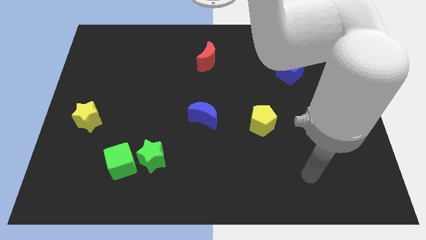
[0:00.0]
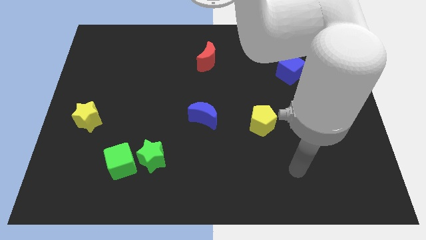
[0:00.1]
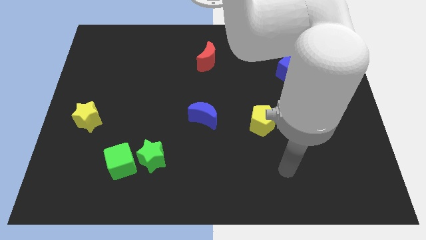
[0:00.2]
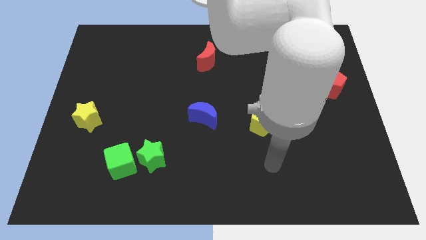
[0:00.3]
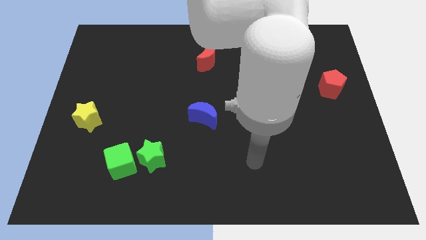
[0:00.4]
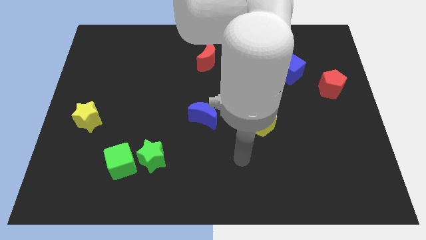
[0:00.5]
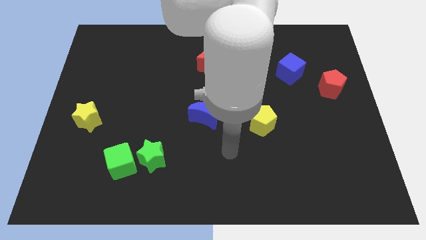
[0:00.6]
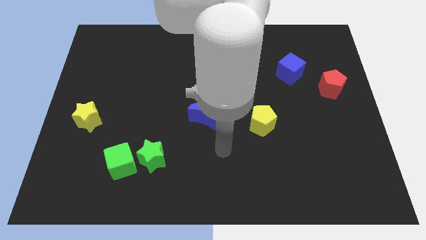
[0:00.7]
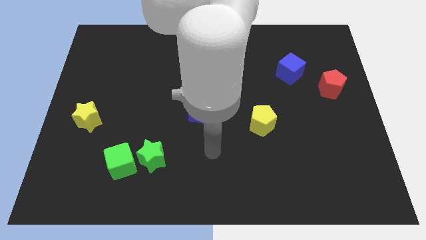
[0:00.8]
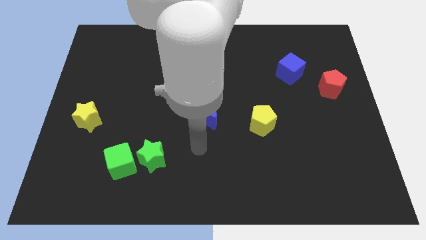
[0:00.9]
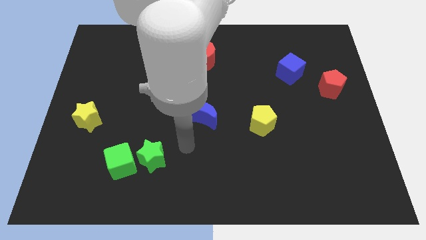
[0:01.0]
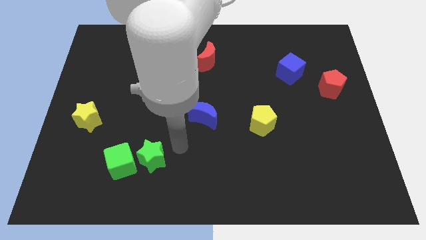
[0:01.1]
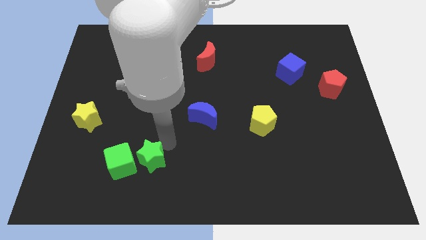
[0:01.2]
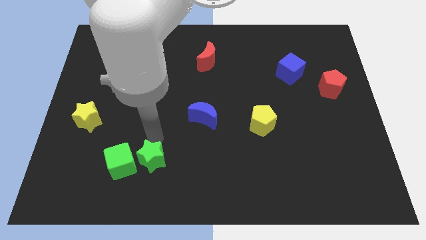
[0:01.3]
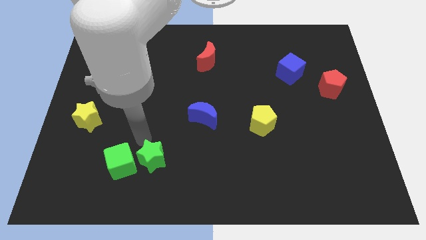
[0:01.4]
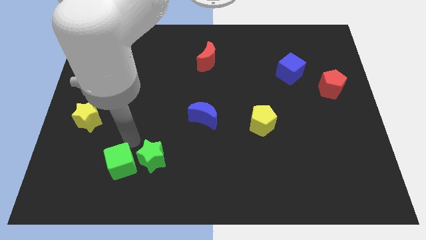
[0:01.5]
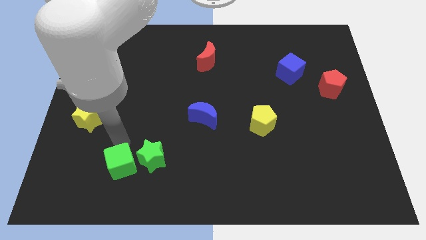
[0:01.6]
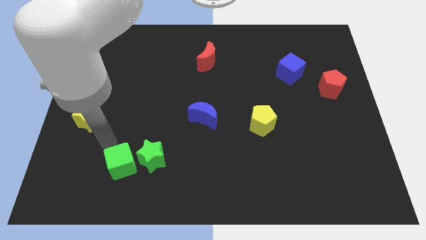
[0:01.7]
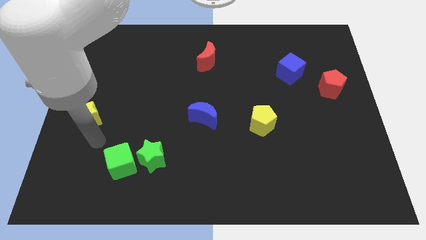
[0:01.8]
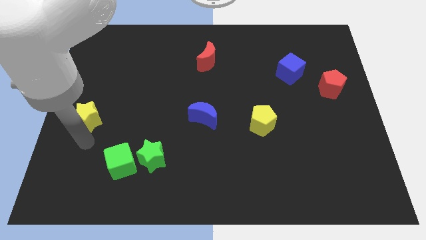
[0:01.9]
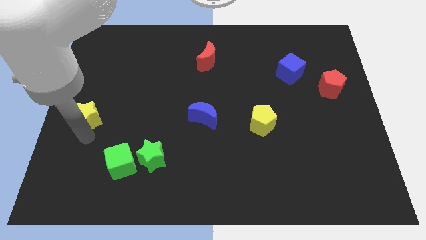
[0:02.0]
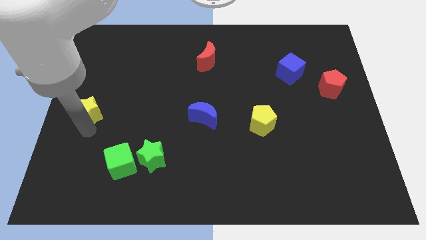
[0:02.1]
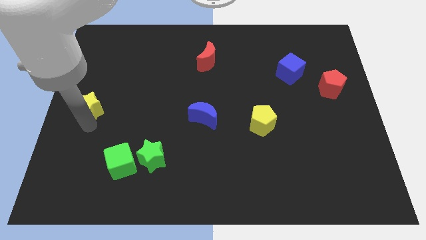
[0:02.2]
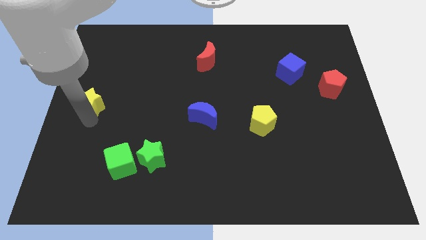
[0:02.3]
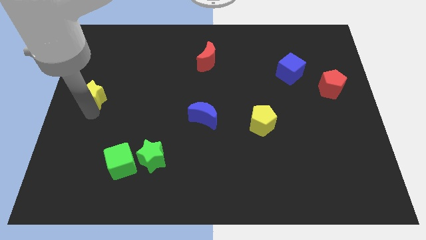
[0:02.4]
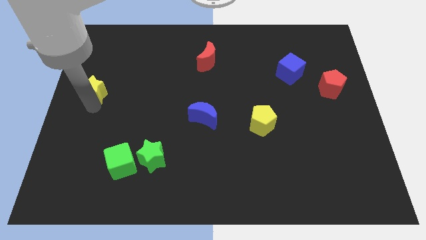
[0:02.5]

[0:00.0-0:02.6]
push the yellow star a little bit up

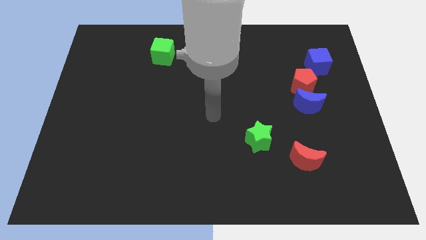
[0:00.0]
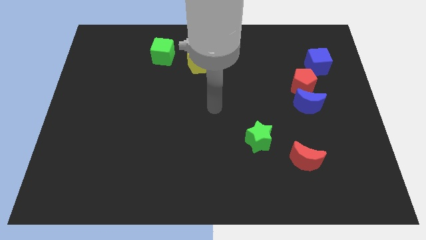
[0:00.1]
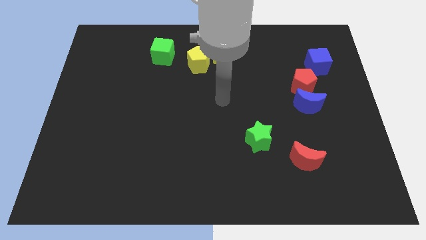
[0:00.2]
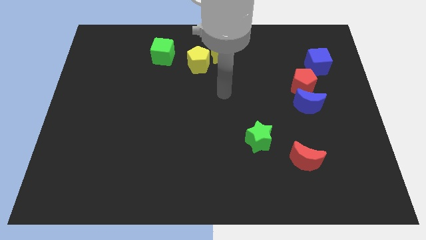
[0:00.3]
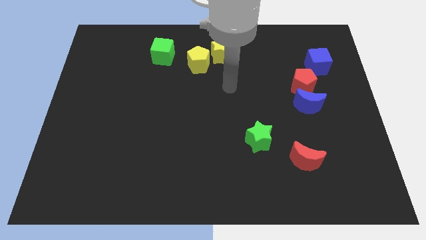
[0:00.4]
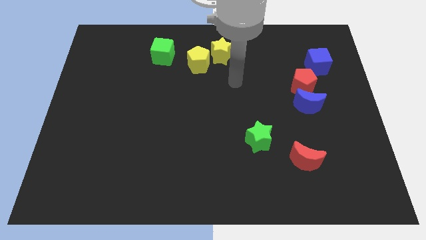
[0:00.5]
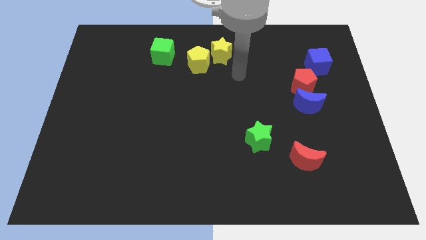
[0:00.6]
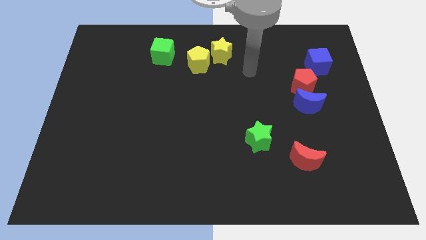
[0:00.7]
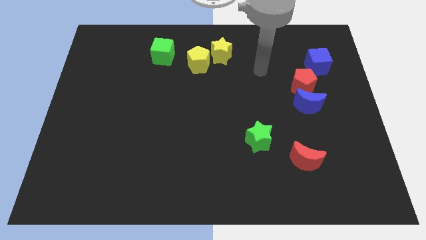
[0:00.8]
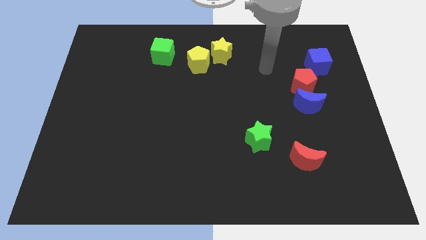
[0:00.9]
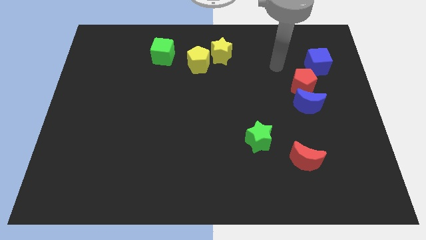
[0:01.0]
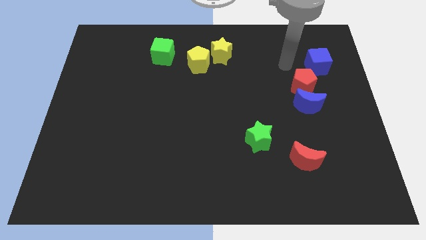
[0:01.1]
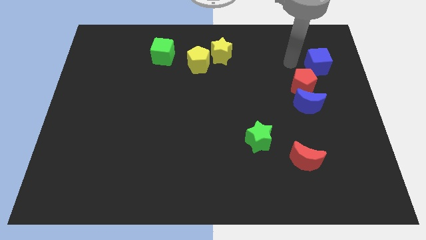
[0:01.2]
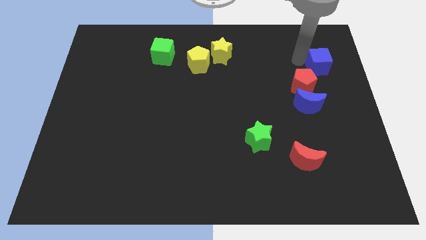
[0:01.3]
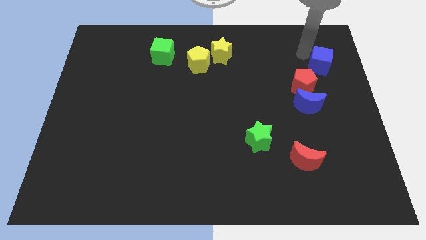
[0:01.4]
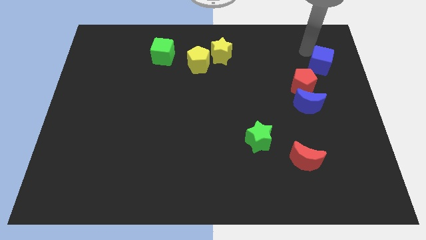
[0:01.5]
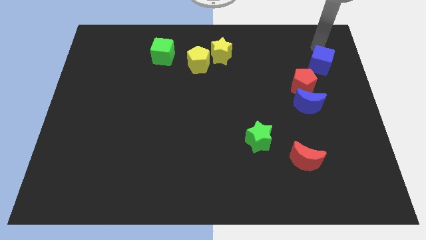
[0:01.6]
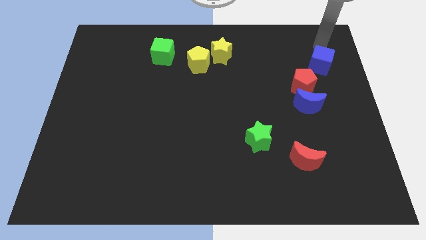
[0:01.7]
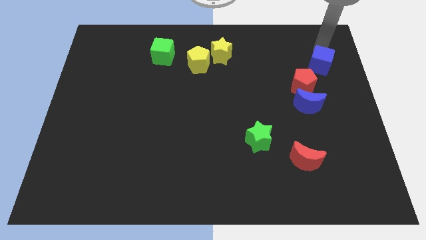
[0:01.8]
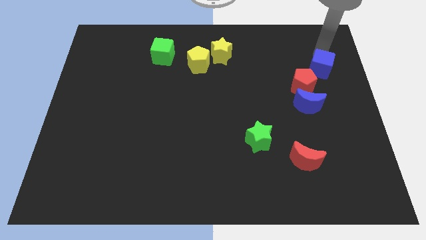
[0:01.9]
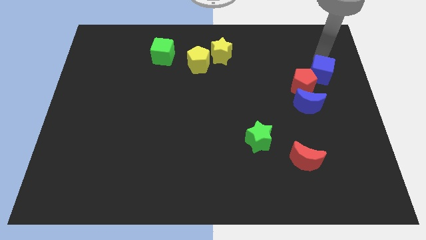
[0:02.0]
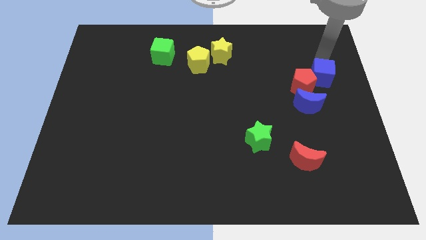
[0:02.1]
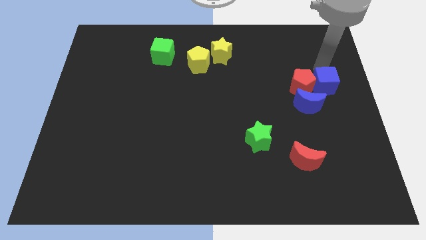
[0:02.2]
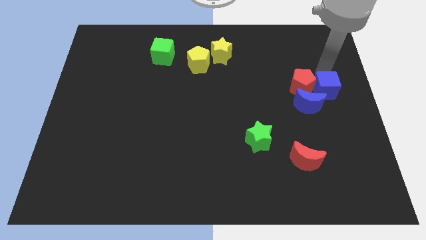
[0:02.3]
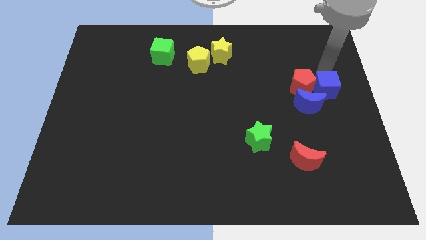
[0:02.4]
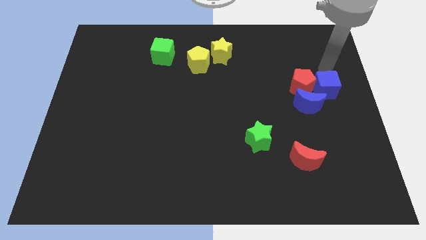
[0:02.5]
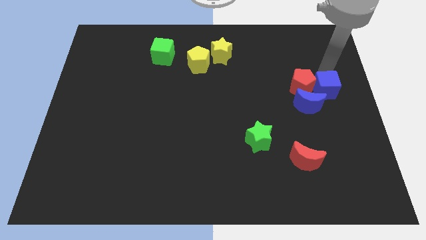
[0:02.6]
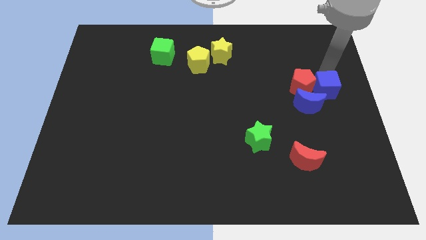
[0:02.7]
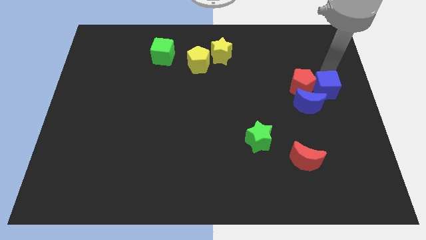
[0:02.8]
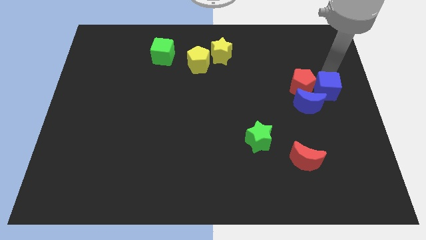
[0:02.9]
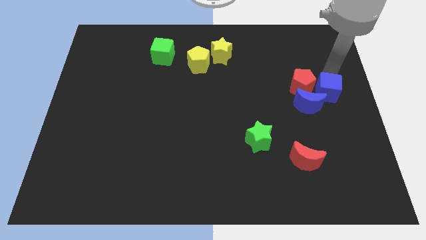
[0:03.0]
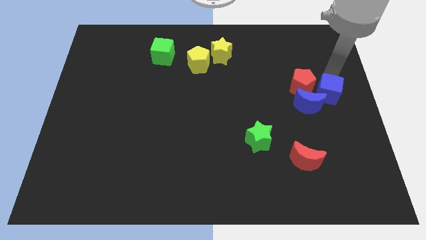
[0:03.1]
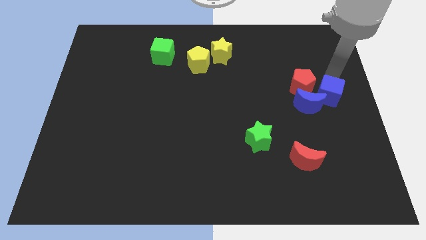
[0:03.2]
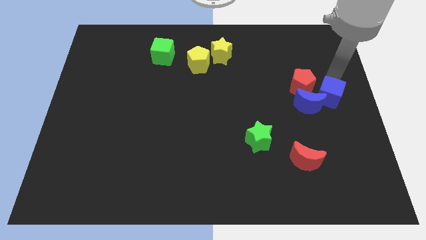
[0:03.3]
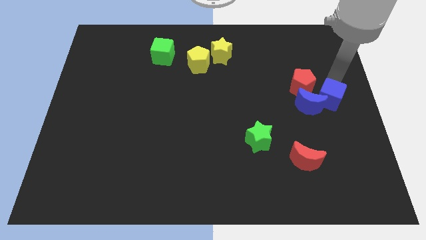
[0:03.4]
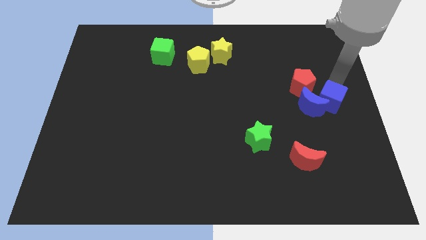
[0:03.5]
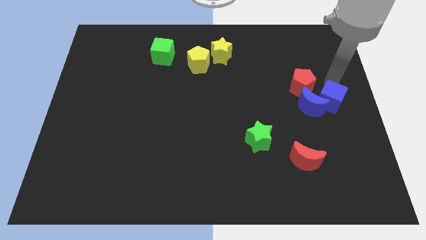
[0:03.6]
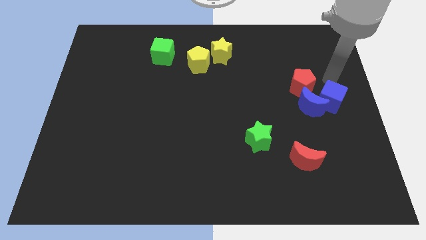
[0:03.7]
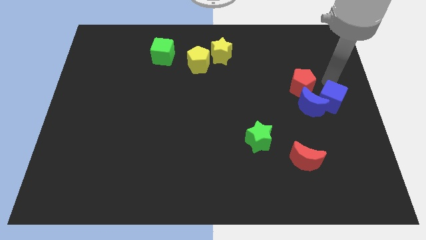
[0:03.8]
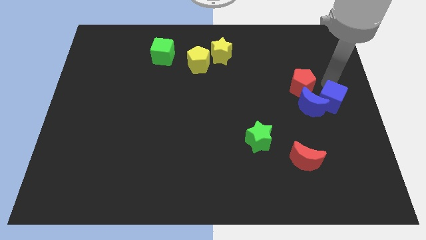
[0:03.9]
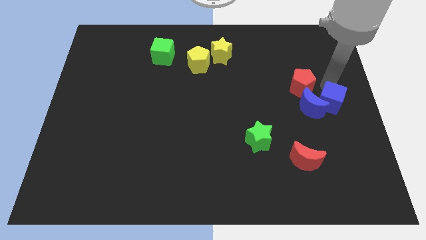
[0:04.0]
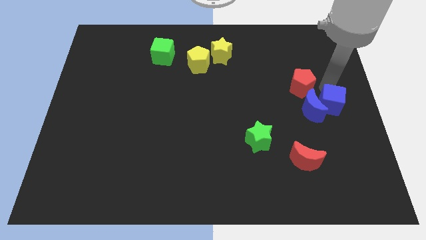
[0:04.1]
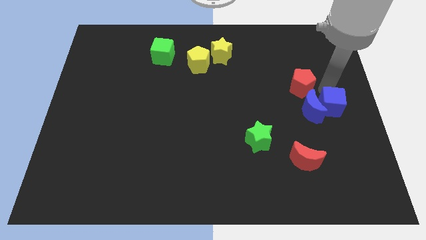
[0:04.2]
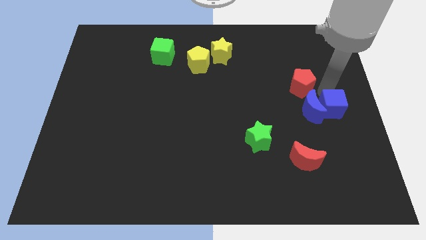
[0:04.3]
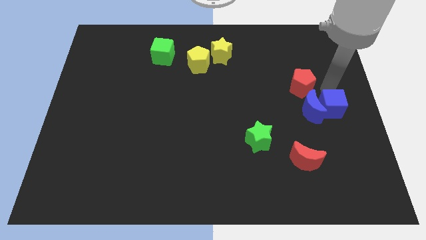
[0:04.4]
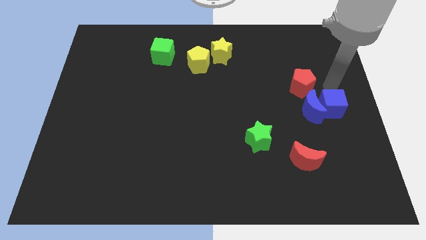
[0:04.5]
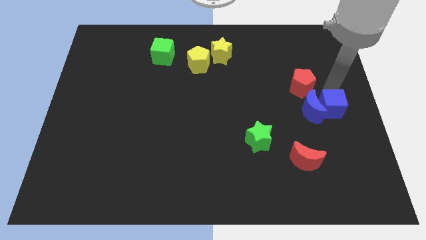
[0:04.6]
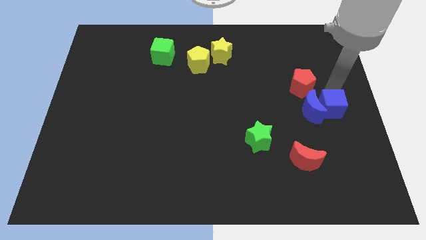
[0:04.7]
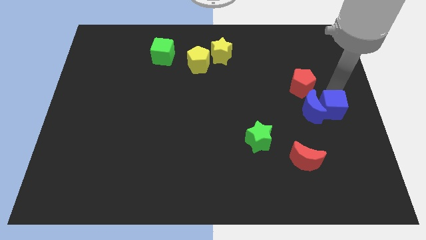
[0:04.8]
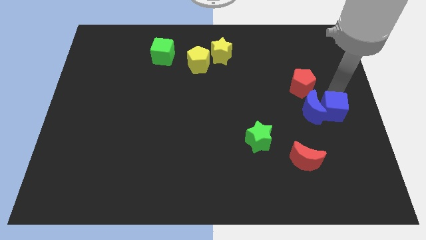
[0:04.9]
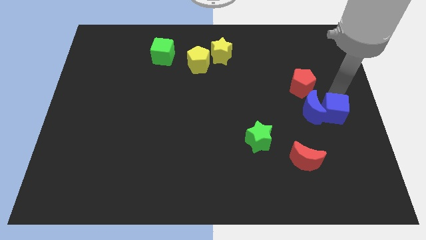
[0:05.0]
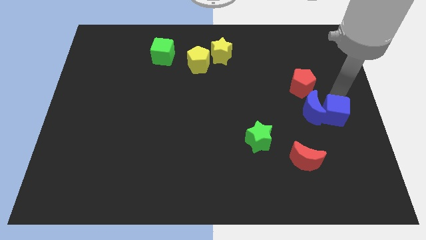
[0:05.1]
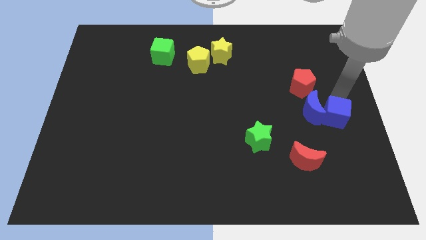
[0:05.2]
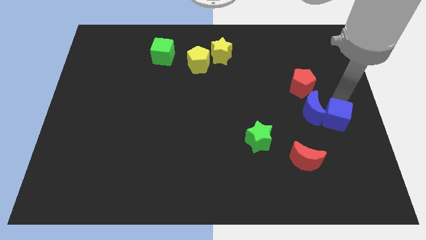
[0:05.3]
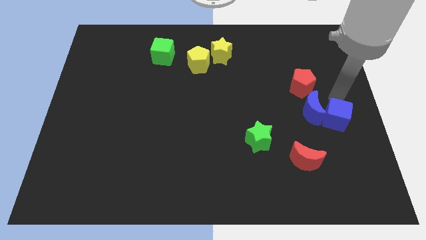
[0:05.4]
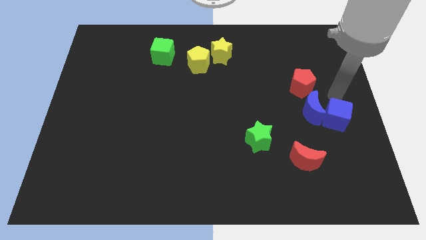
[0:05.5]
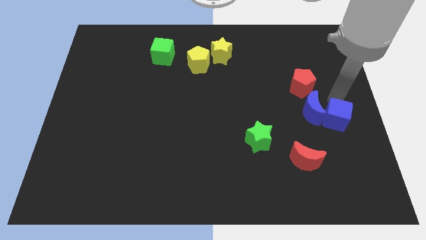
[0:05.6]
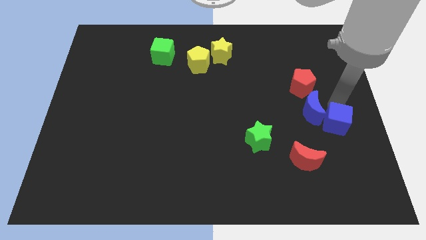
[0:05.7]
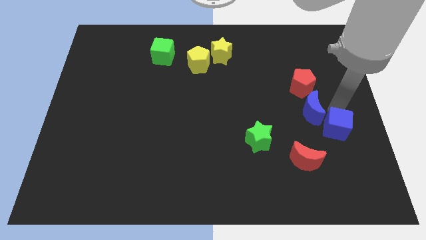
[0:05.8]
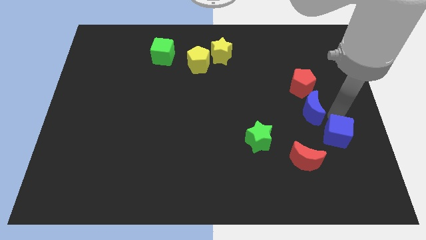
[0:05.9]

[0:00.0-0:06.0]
push the blue cube downwards
